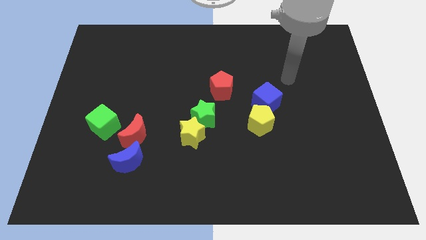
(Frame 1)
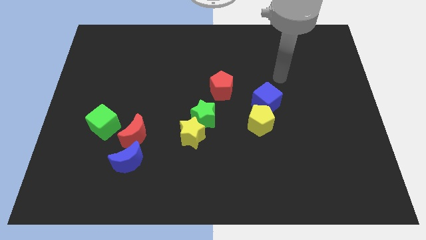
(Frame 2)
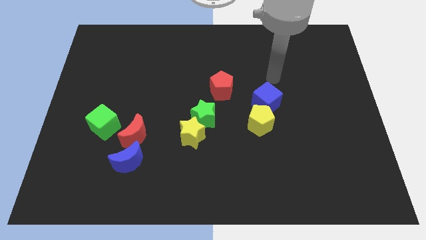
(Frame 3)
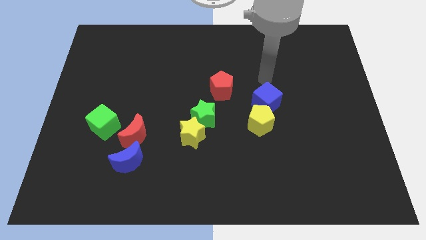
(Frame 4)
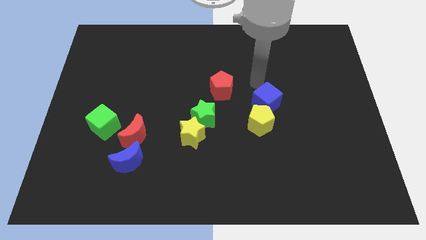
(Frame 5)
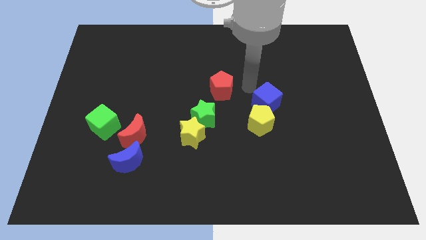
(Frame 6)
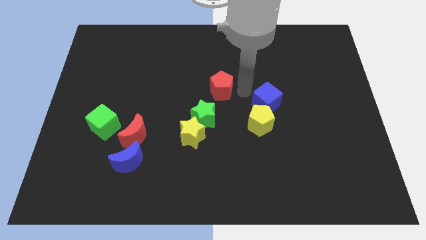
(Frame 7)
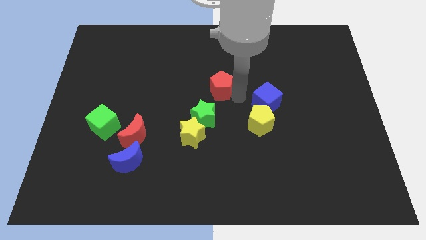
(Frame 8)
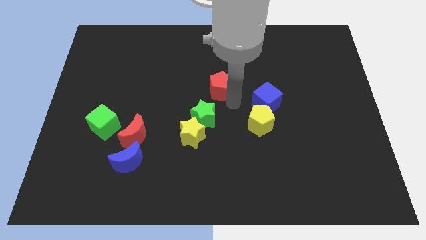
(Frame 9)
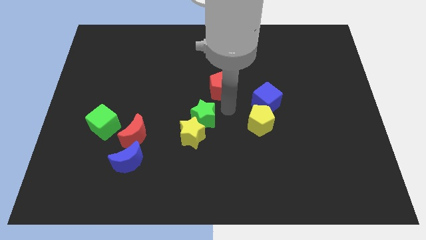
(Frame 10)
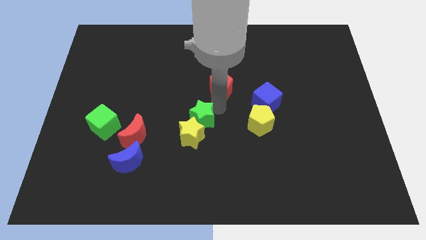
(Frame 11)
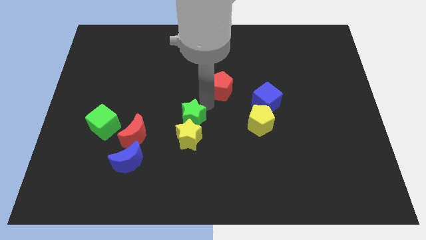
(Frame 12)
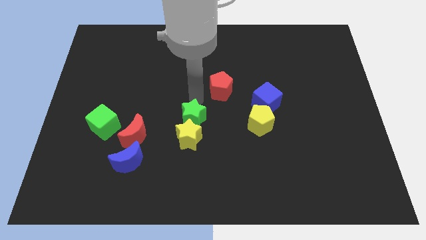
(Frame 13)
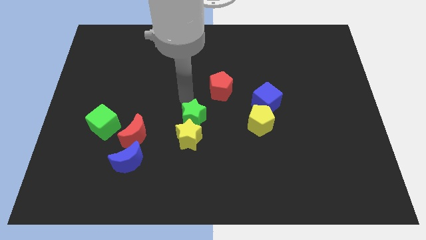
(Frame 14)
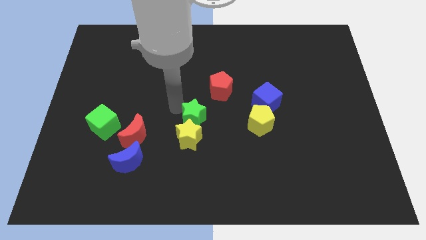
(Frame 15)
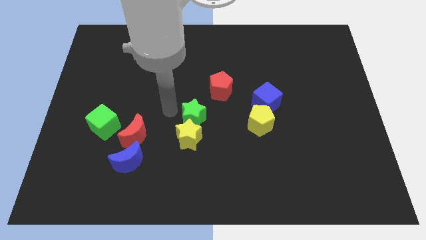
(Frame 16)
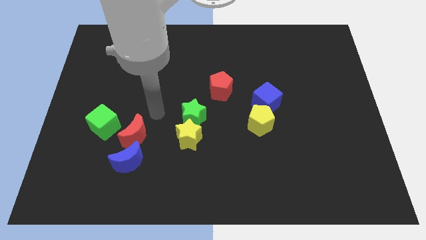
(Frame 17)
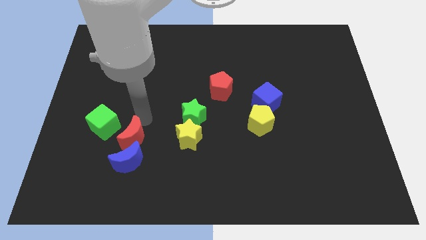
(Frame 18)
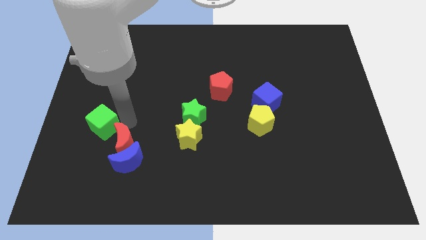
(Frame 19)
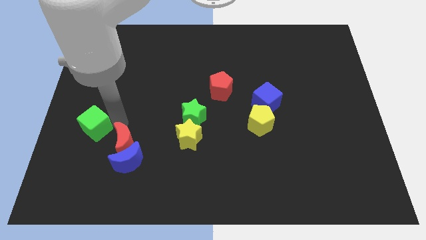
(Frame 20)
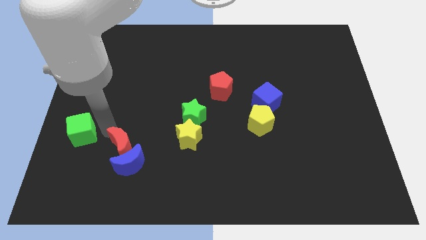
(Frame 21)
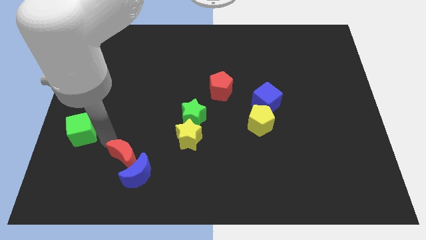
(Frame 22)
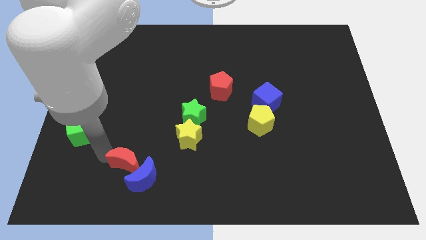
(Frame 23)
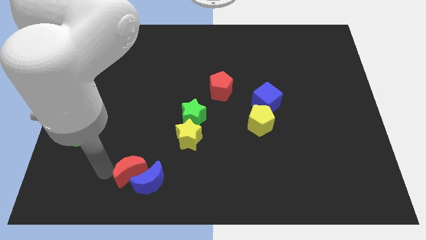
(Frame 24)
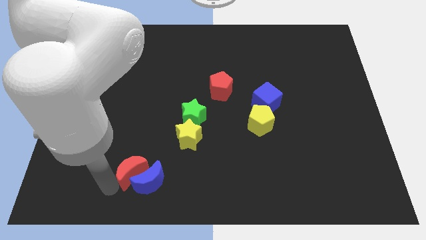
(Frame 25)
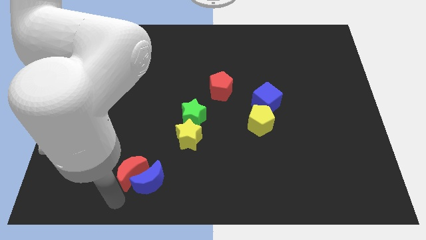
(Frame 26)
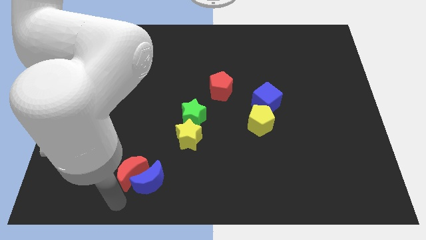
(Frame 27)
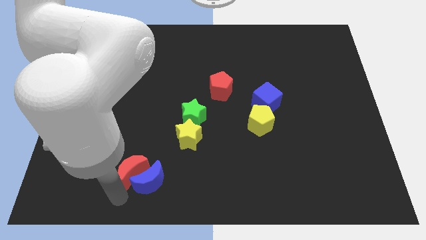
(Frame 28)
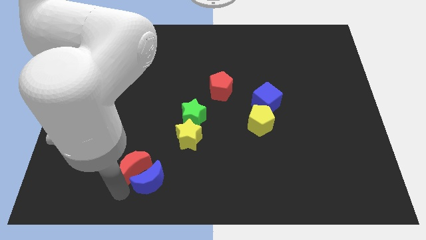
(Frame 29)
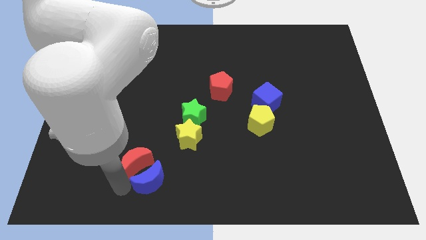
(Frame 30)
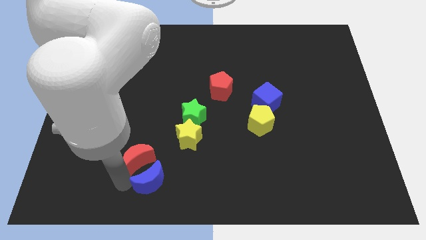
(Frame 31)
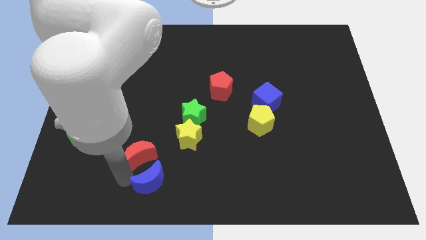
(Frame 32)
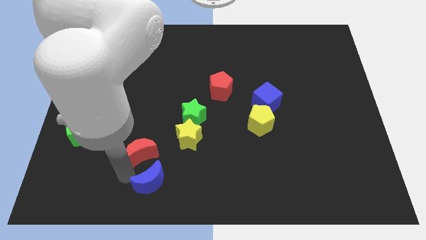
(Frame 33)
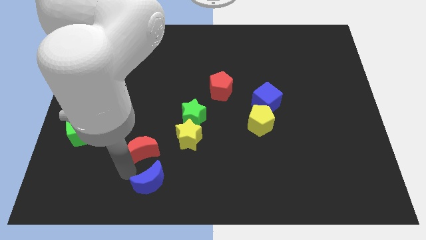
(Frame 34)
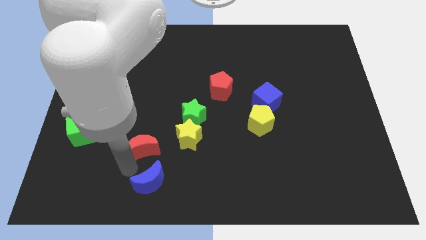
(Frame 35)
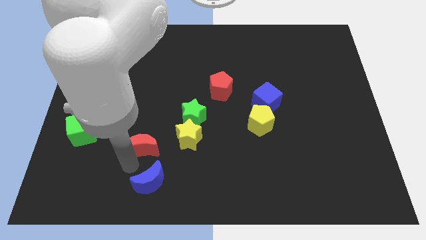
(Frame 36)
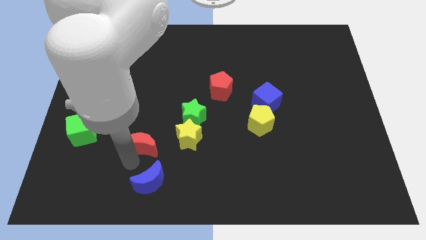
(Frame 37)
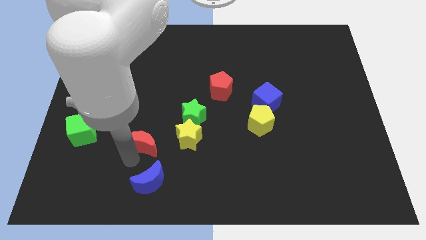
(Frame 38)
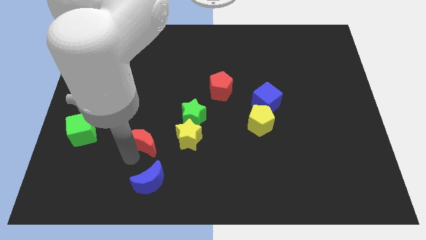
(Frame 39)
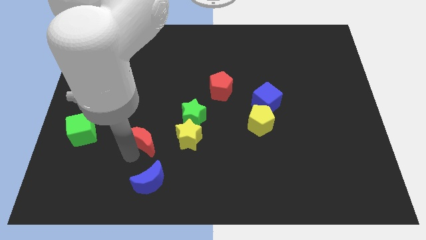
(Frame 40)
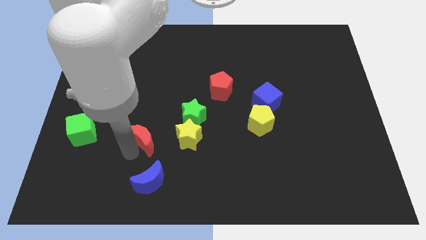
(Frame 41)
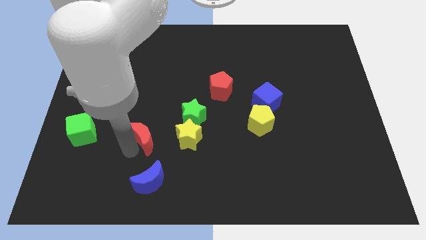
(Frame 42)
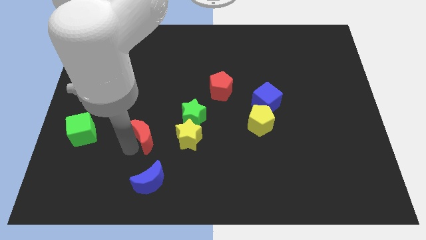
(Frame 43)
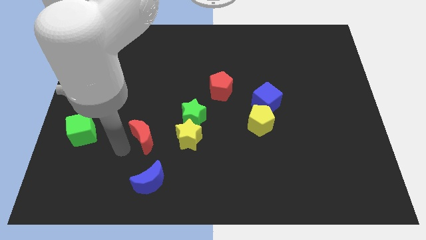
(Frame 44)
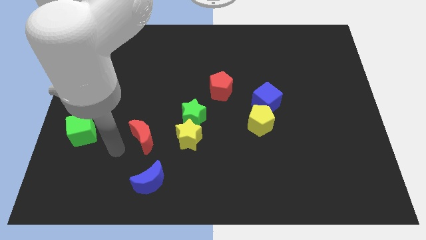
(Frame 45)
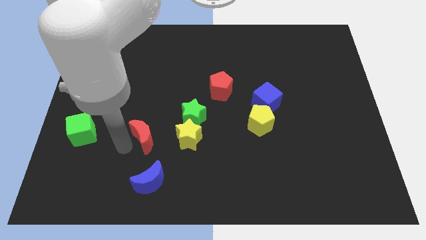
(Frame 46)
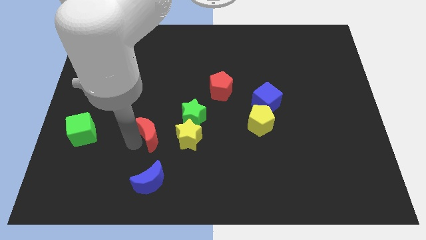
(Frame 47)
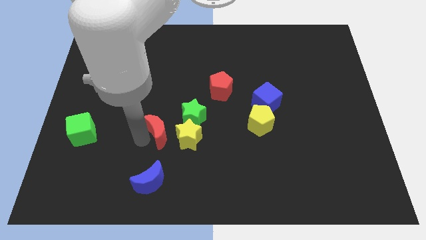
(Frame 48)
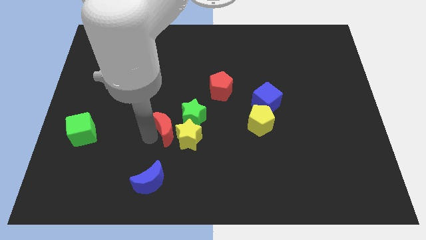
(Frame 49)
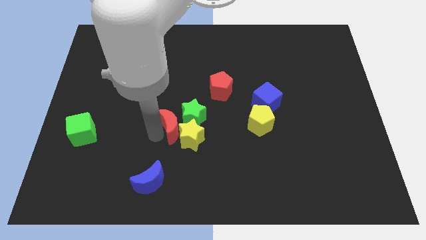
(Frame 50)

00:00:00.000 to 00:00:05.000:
push the red moon close to the green star

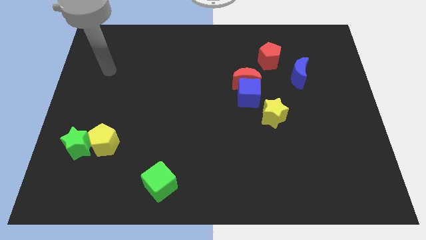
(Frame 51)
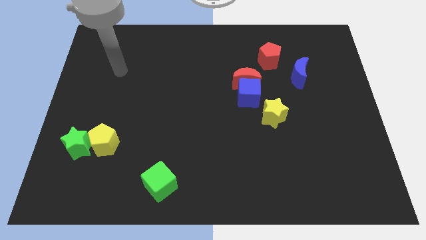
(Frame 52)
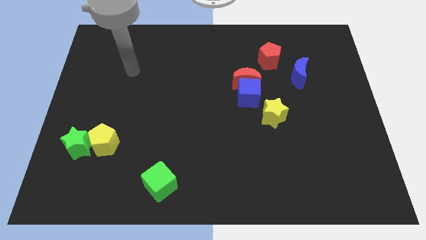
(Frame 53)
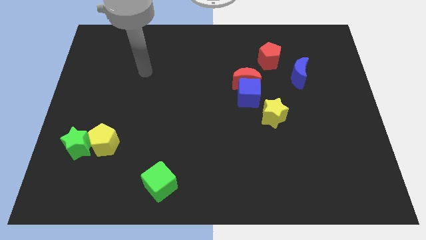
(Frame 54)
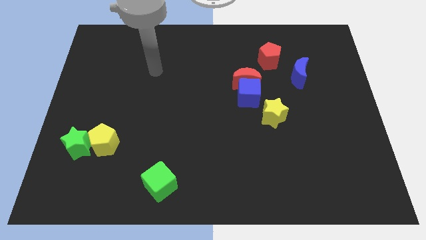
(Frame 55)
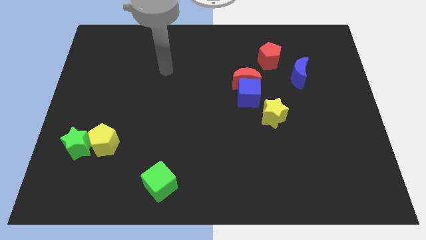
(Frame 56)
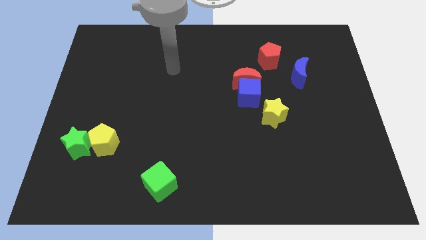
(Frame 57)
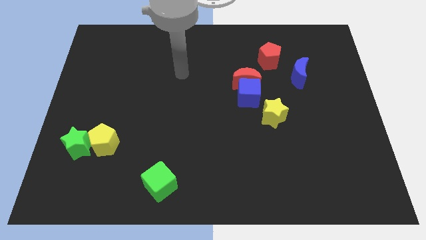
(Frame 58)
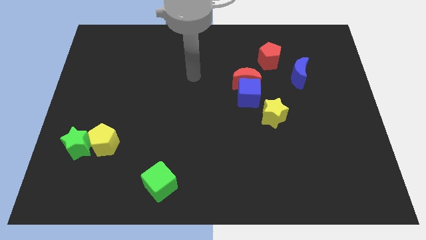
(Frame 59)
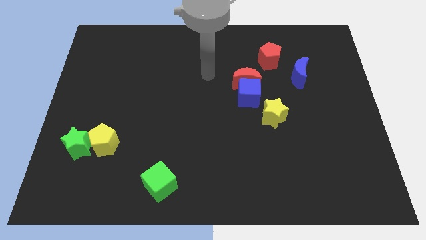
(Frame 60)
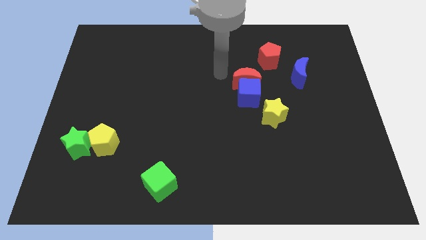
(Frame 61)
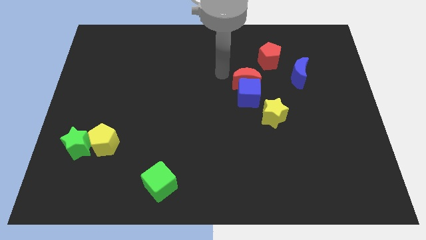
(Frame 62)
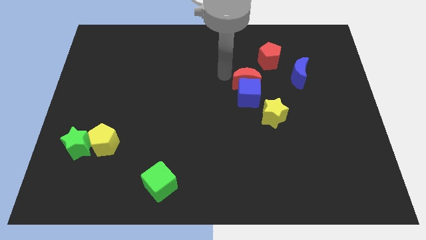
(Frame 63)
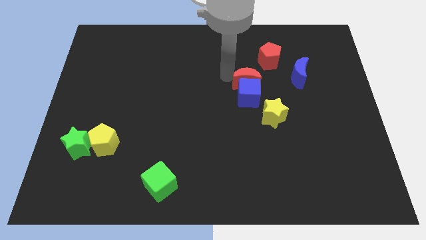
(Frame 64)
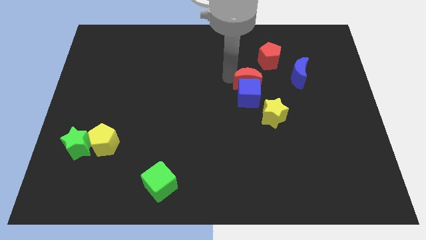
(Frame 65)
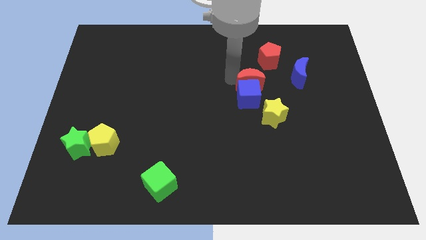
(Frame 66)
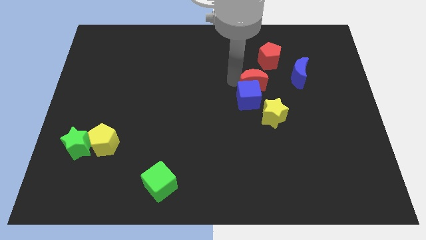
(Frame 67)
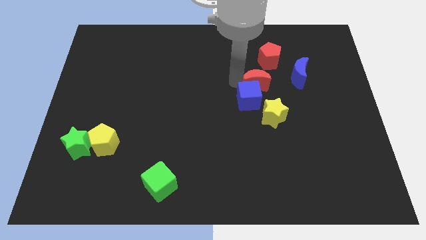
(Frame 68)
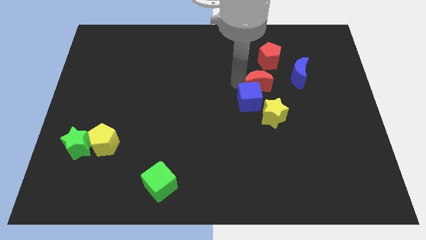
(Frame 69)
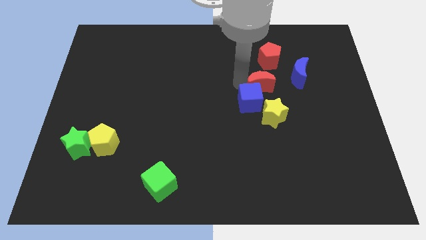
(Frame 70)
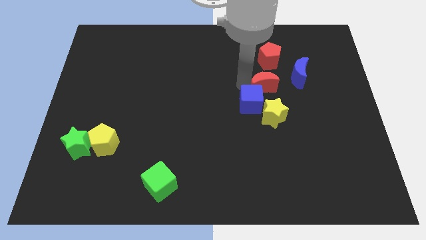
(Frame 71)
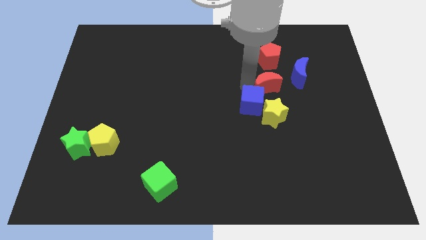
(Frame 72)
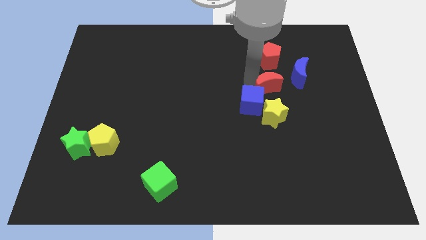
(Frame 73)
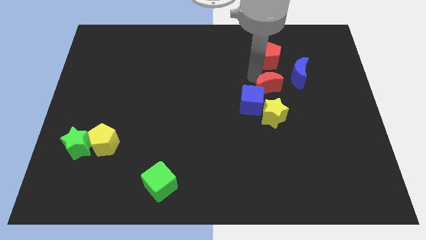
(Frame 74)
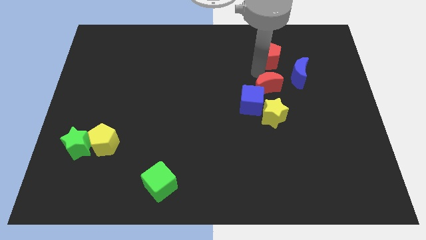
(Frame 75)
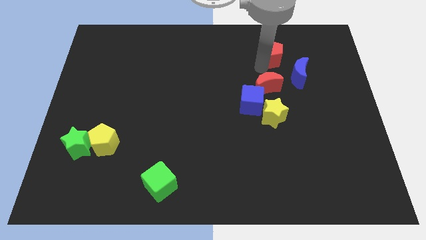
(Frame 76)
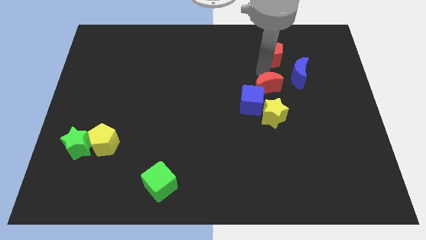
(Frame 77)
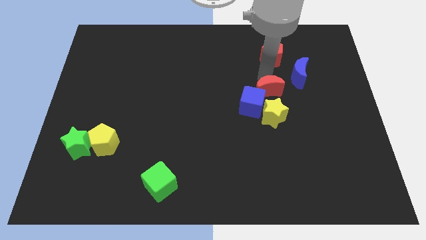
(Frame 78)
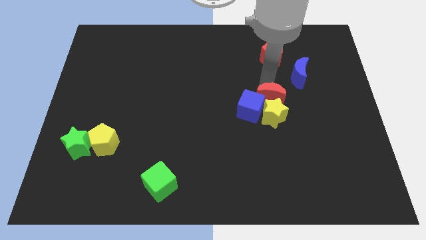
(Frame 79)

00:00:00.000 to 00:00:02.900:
push the red moon to the yellow star

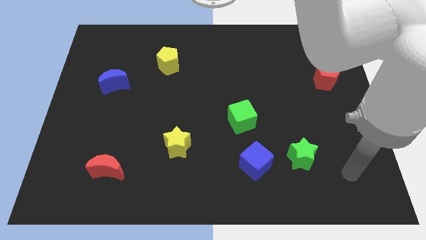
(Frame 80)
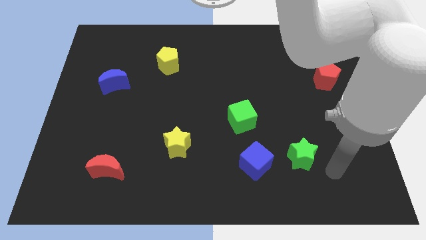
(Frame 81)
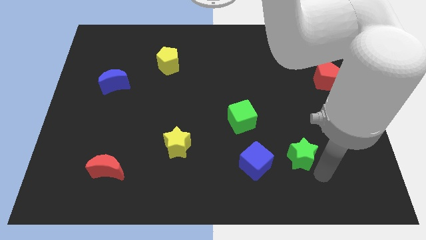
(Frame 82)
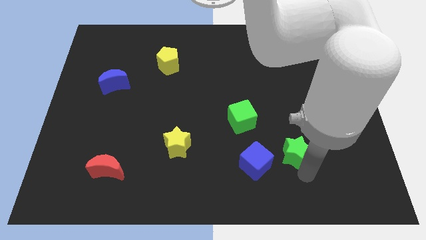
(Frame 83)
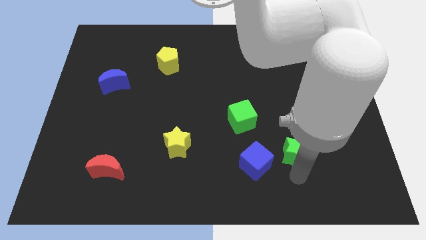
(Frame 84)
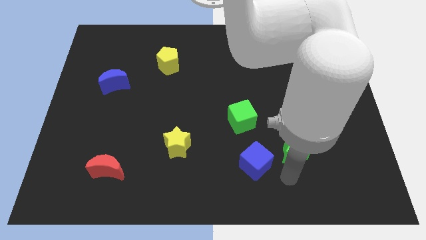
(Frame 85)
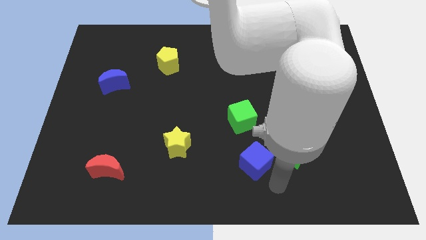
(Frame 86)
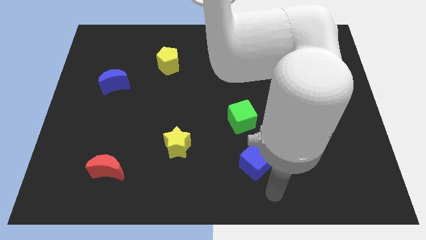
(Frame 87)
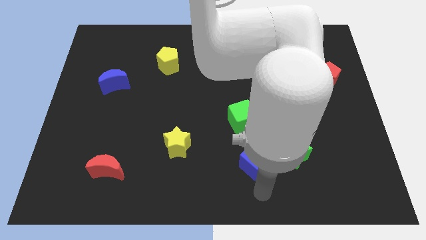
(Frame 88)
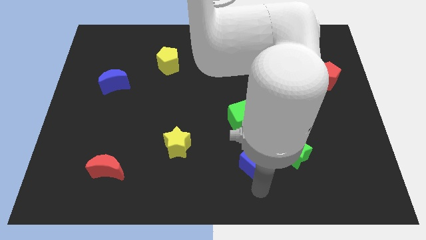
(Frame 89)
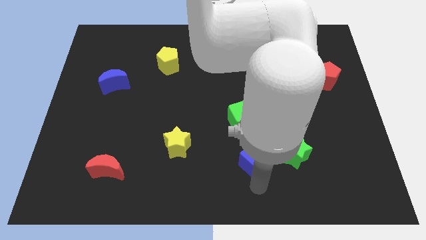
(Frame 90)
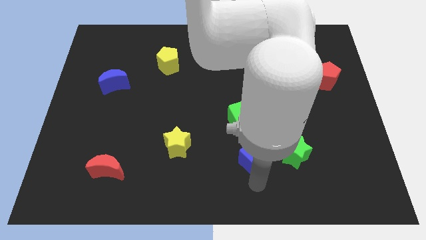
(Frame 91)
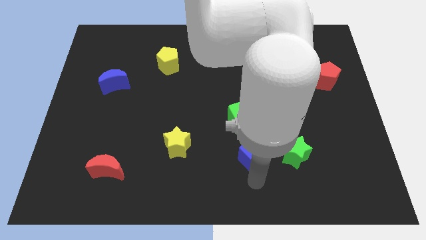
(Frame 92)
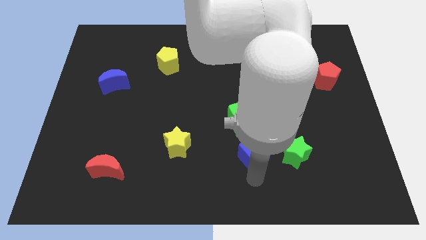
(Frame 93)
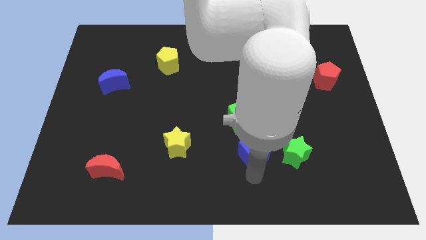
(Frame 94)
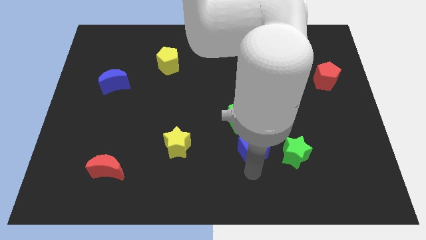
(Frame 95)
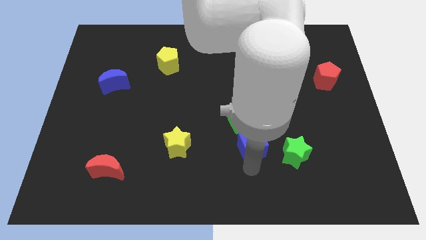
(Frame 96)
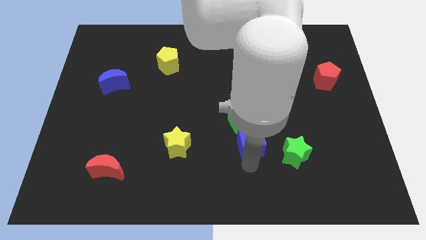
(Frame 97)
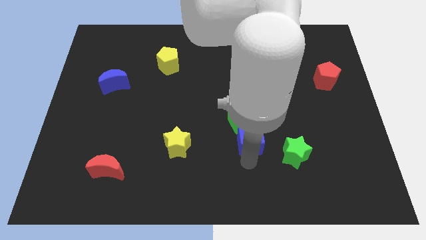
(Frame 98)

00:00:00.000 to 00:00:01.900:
put the blue cube towards the green cube
